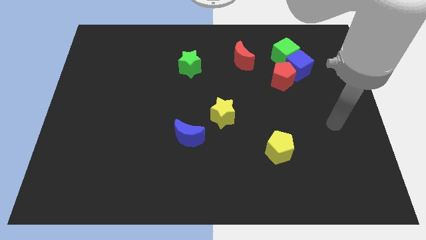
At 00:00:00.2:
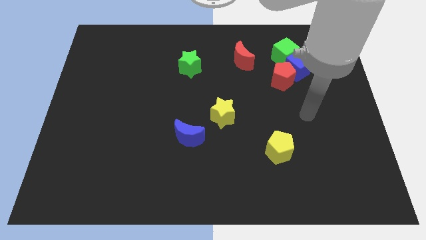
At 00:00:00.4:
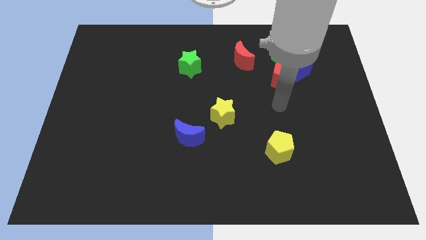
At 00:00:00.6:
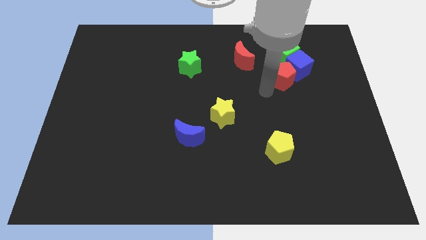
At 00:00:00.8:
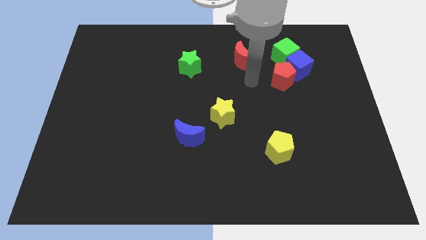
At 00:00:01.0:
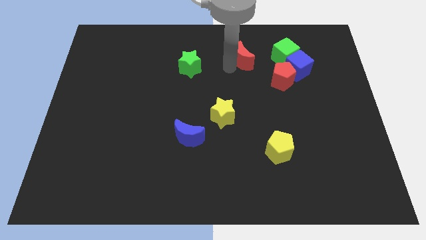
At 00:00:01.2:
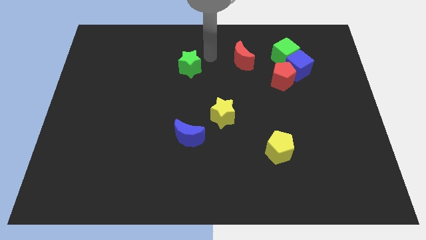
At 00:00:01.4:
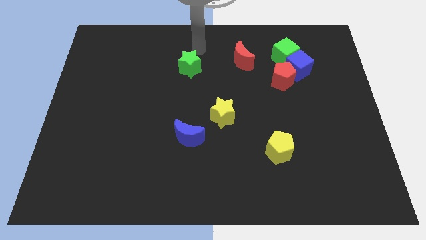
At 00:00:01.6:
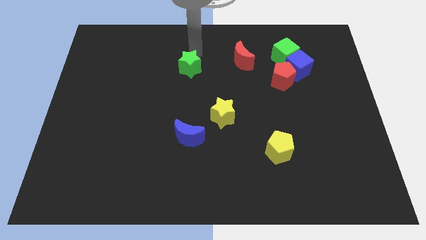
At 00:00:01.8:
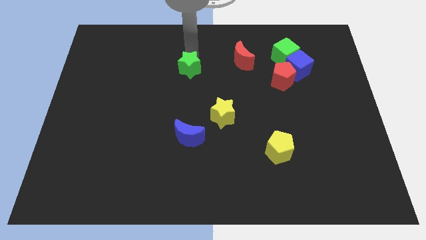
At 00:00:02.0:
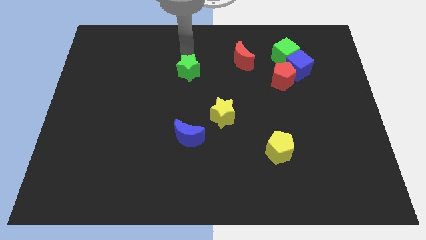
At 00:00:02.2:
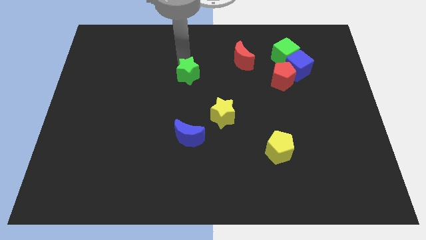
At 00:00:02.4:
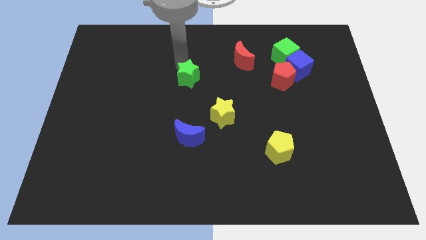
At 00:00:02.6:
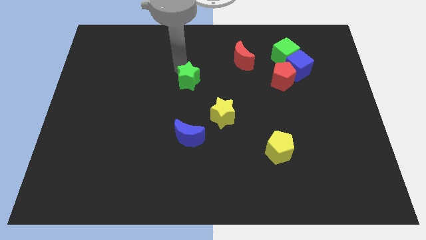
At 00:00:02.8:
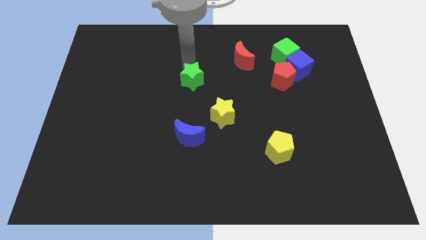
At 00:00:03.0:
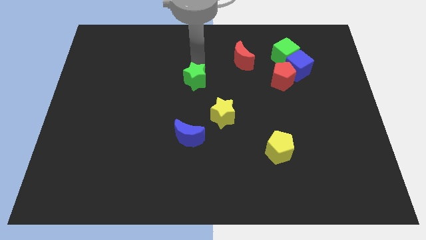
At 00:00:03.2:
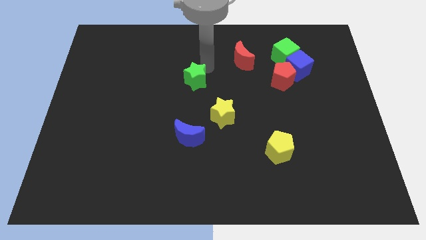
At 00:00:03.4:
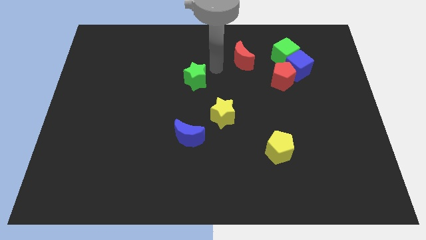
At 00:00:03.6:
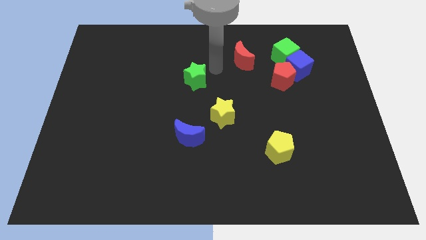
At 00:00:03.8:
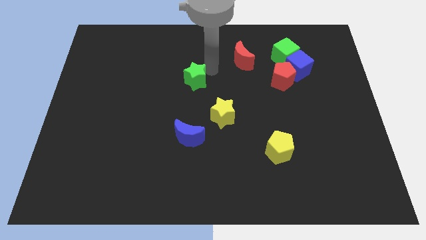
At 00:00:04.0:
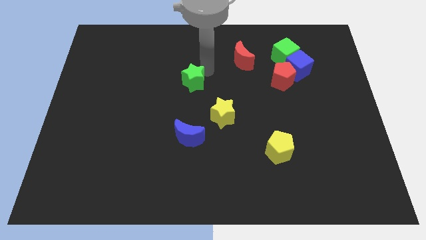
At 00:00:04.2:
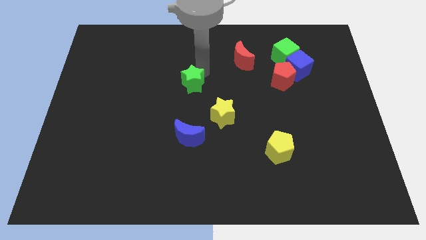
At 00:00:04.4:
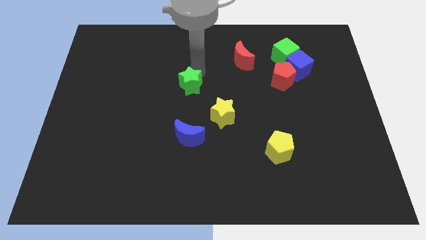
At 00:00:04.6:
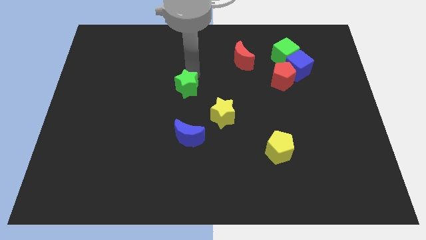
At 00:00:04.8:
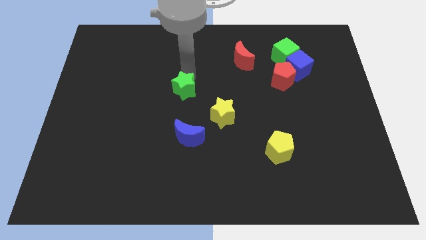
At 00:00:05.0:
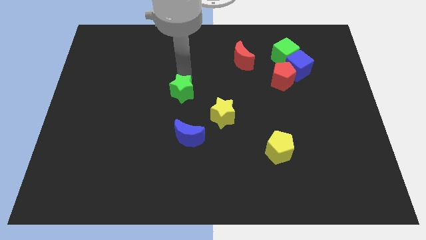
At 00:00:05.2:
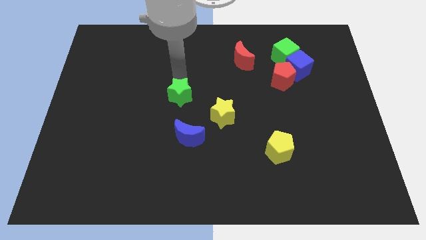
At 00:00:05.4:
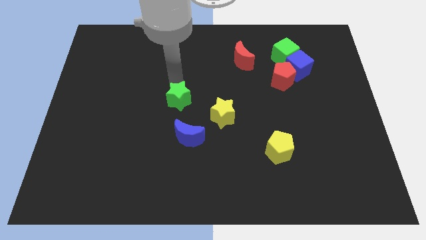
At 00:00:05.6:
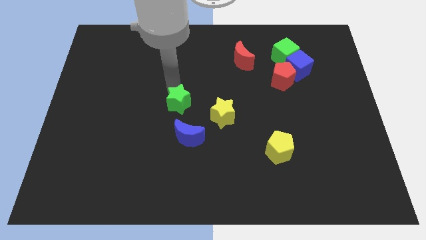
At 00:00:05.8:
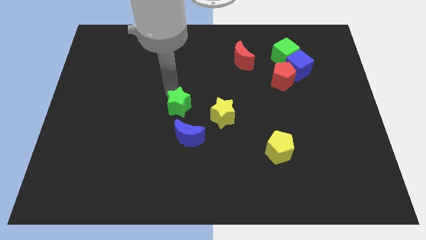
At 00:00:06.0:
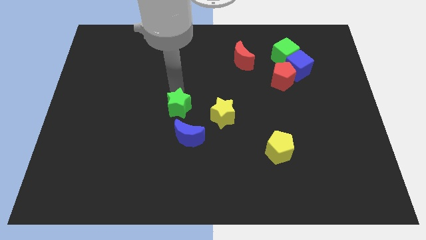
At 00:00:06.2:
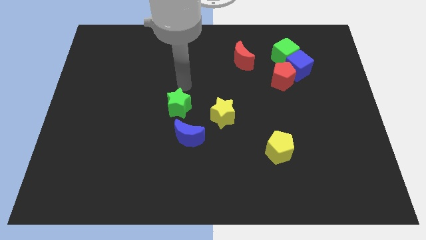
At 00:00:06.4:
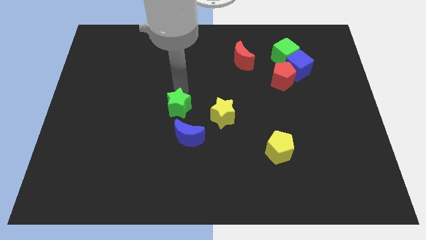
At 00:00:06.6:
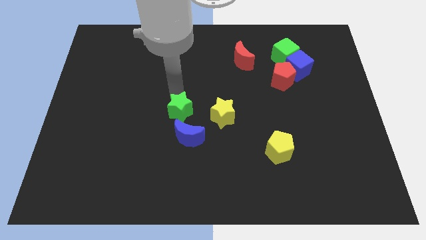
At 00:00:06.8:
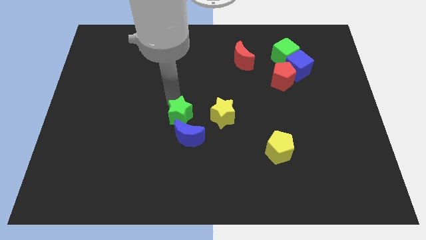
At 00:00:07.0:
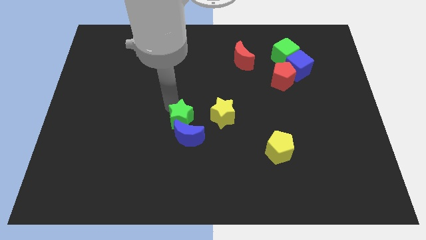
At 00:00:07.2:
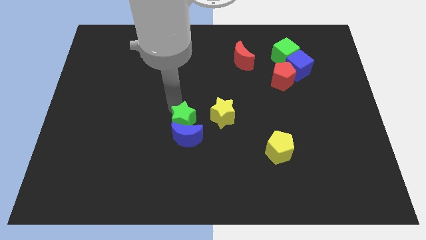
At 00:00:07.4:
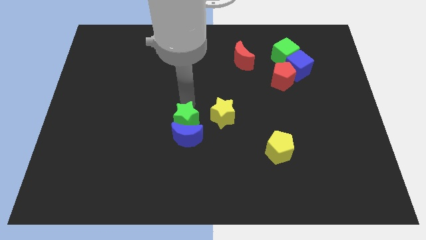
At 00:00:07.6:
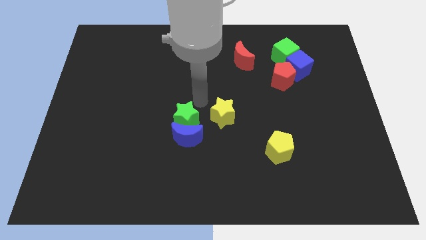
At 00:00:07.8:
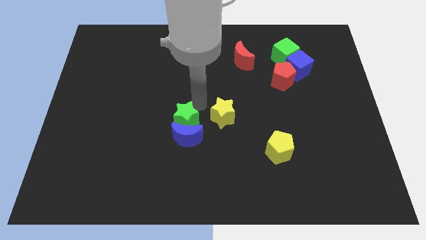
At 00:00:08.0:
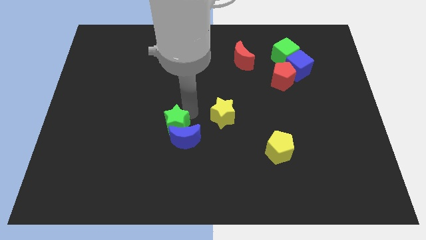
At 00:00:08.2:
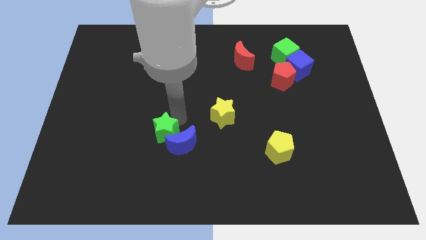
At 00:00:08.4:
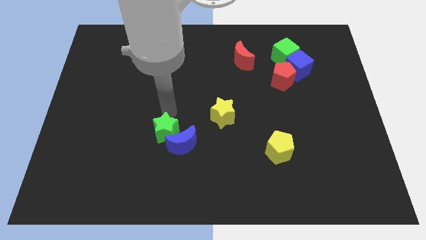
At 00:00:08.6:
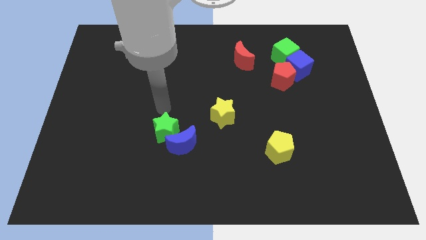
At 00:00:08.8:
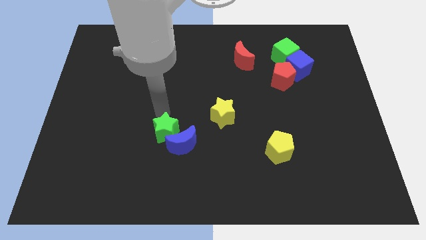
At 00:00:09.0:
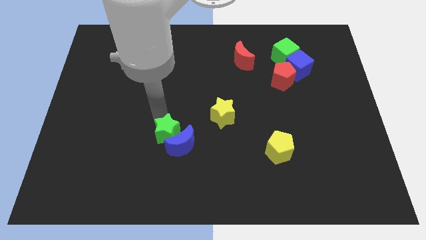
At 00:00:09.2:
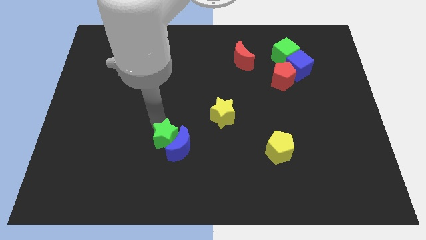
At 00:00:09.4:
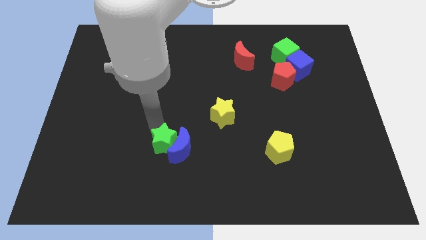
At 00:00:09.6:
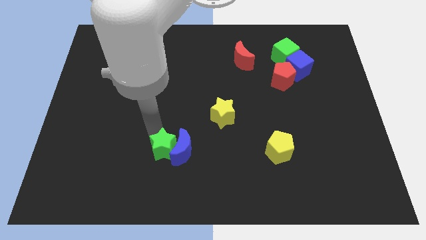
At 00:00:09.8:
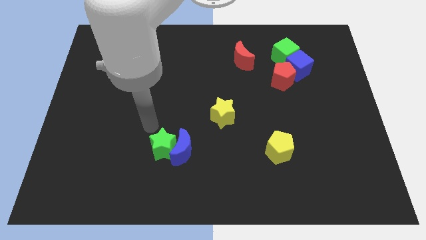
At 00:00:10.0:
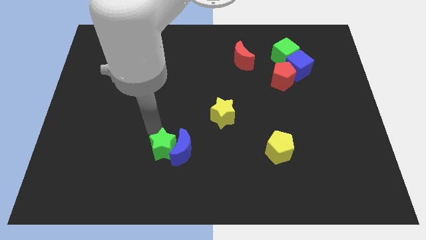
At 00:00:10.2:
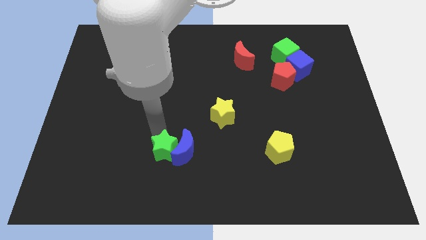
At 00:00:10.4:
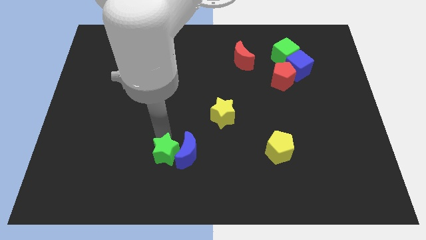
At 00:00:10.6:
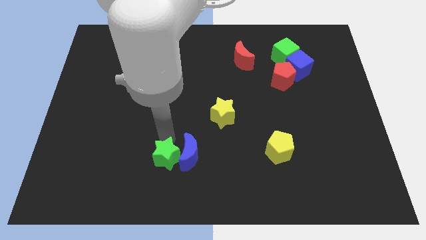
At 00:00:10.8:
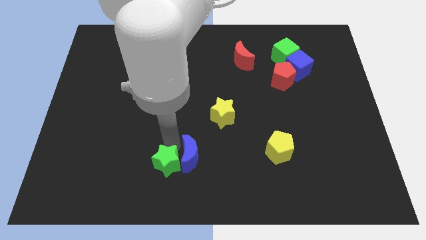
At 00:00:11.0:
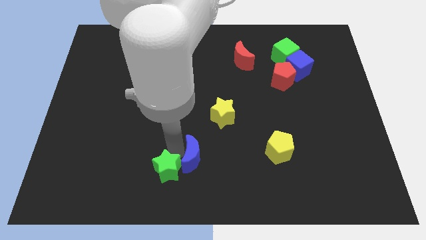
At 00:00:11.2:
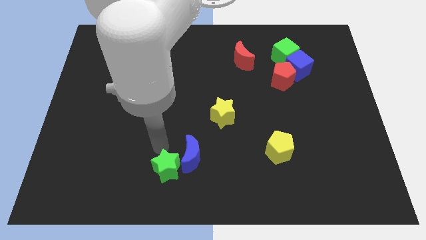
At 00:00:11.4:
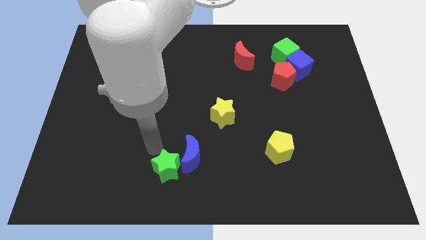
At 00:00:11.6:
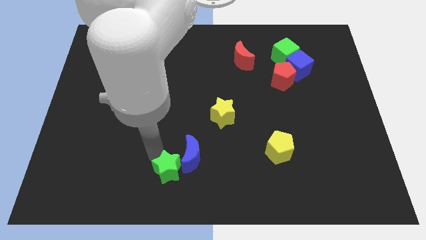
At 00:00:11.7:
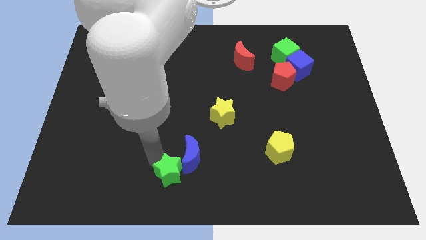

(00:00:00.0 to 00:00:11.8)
put the green star to the bottom of the blue moon

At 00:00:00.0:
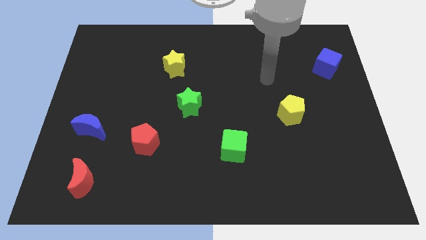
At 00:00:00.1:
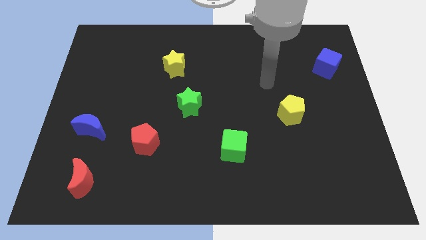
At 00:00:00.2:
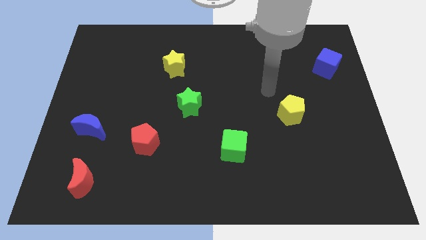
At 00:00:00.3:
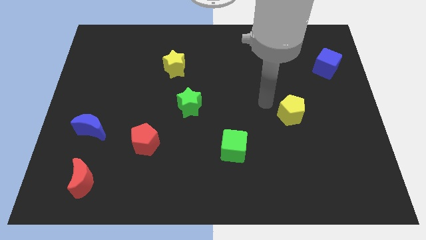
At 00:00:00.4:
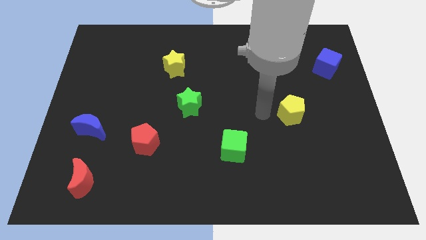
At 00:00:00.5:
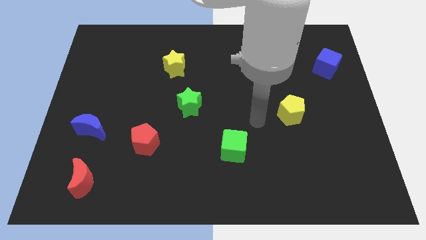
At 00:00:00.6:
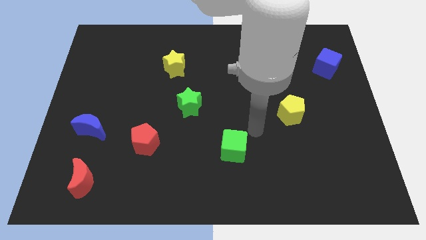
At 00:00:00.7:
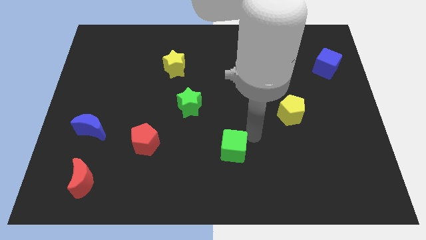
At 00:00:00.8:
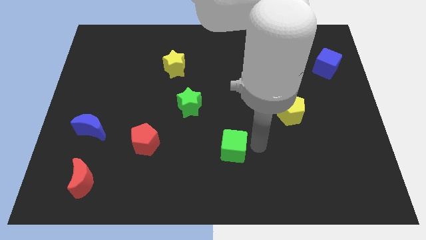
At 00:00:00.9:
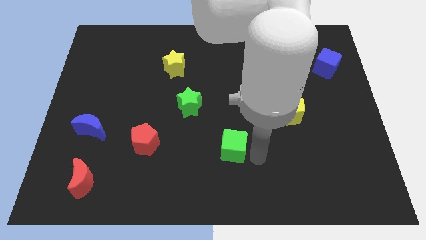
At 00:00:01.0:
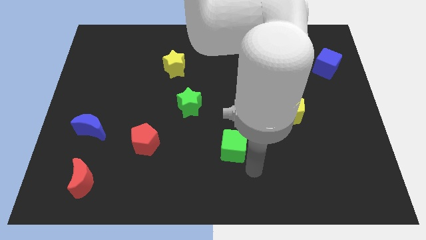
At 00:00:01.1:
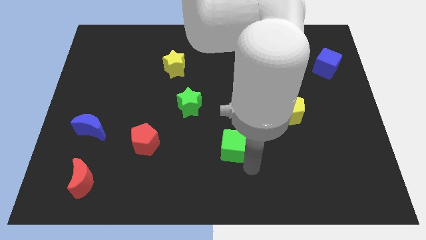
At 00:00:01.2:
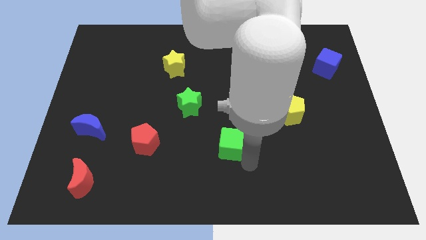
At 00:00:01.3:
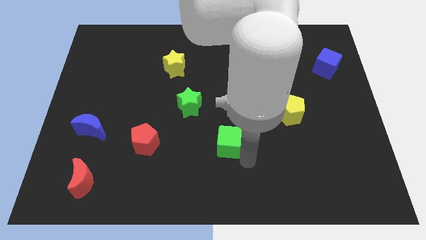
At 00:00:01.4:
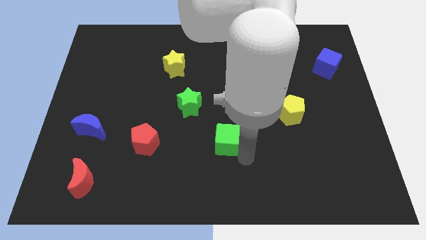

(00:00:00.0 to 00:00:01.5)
move the green cube diagonally down and to the right of the green star
